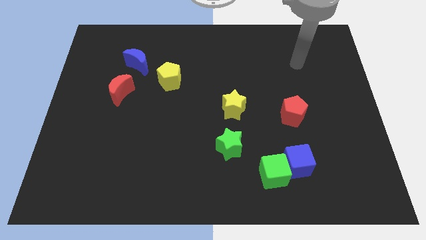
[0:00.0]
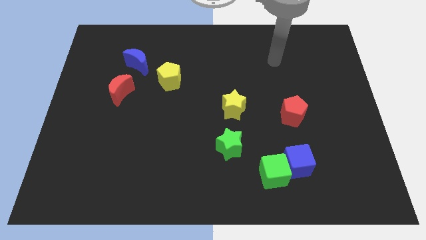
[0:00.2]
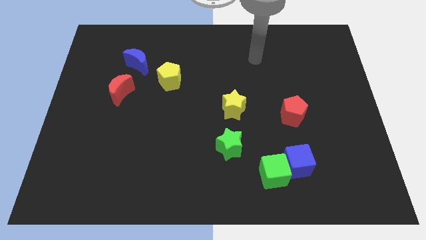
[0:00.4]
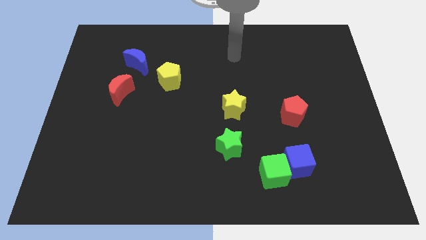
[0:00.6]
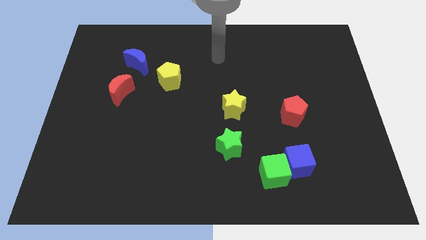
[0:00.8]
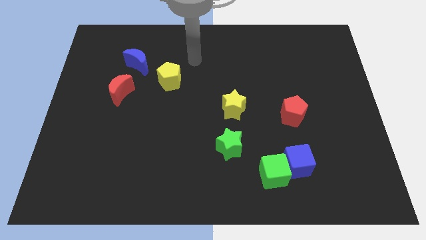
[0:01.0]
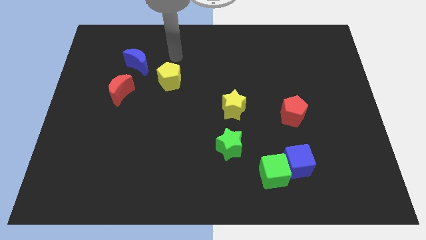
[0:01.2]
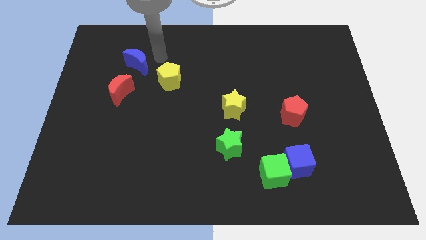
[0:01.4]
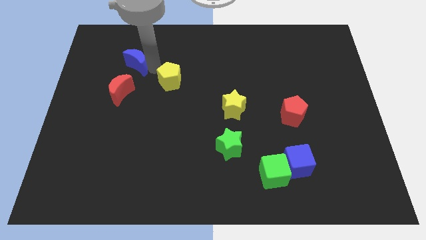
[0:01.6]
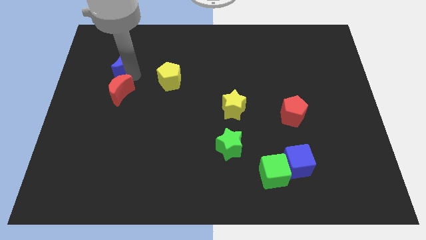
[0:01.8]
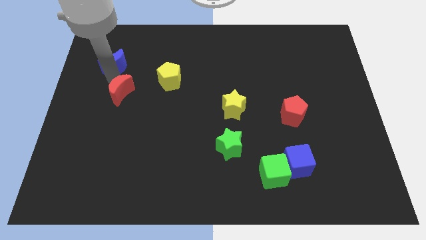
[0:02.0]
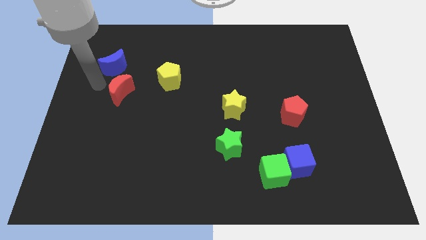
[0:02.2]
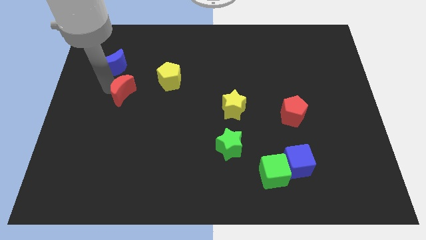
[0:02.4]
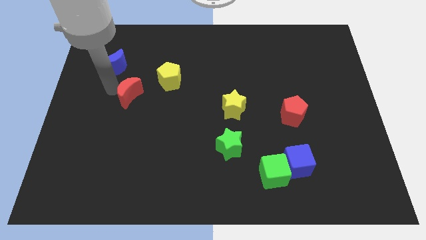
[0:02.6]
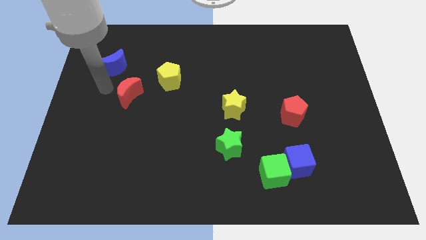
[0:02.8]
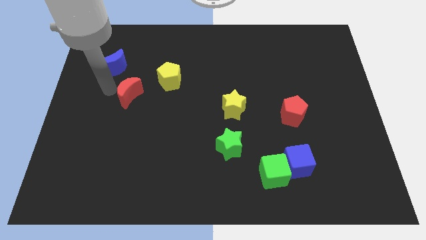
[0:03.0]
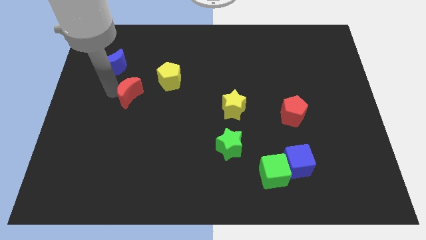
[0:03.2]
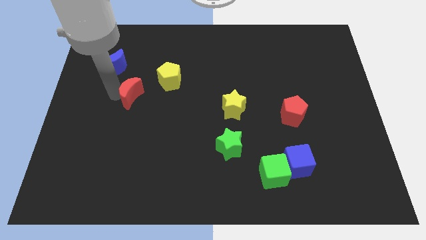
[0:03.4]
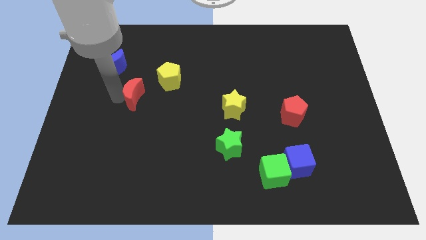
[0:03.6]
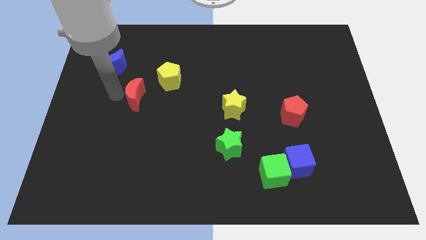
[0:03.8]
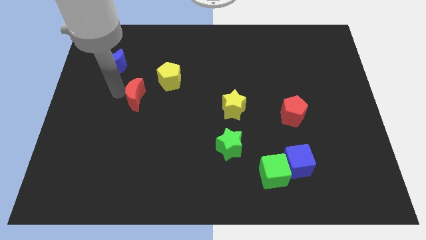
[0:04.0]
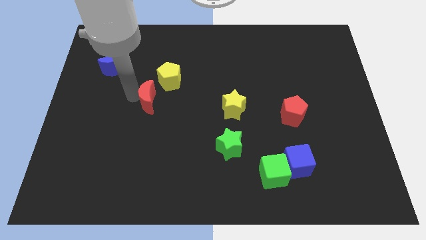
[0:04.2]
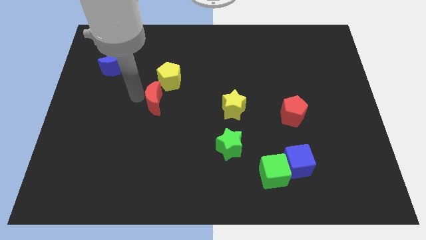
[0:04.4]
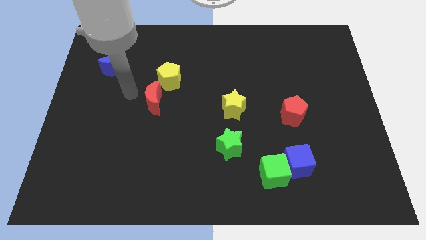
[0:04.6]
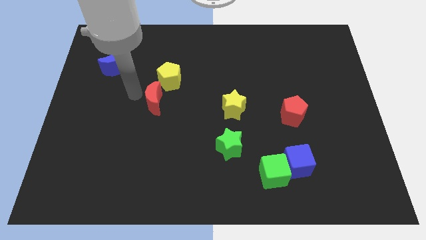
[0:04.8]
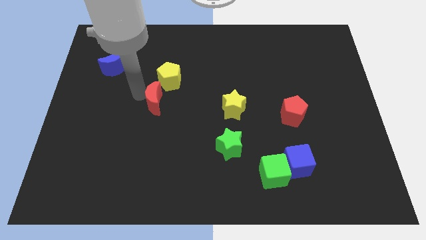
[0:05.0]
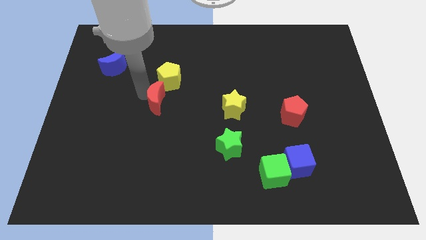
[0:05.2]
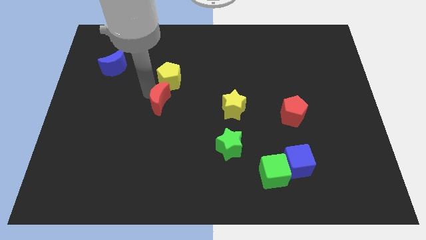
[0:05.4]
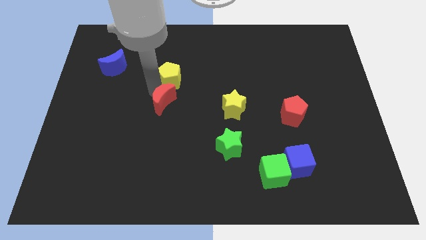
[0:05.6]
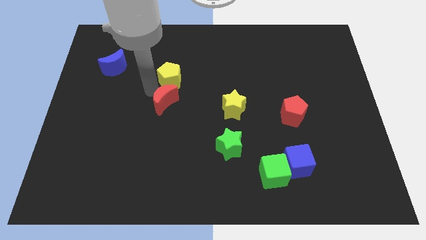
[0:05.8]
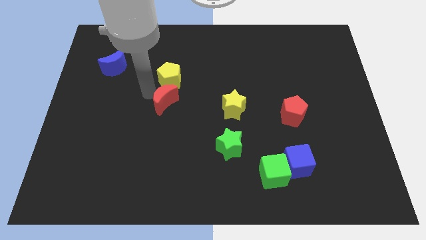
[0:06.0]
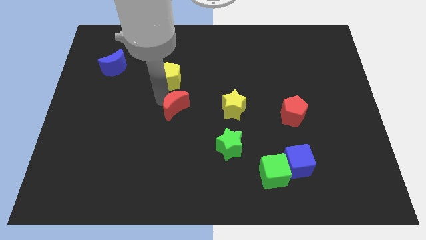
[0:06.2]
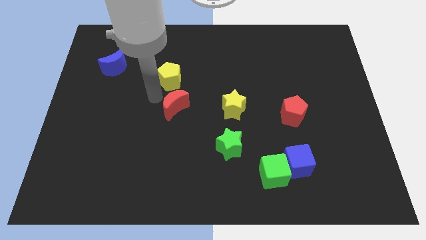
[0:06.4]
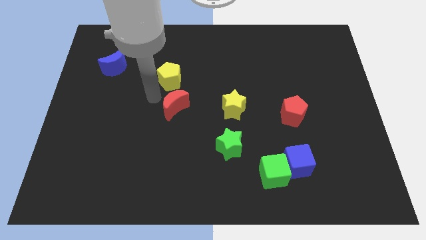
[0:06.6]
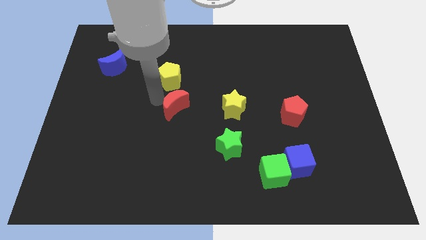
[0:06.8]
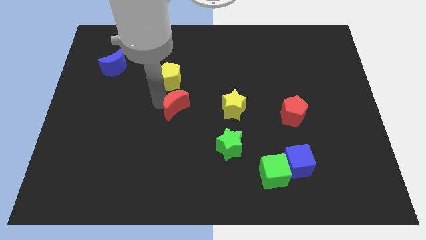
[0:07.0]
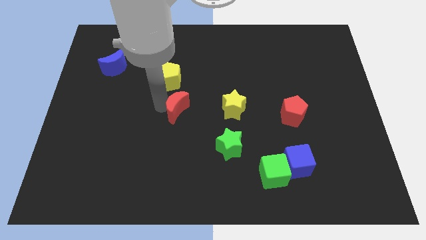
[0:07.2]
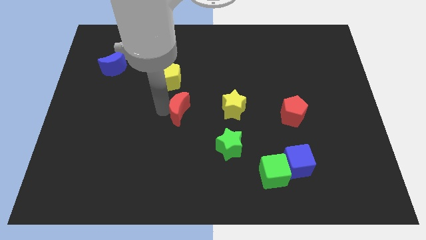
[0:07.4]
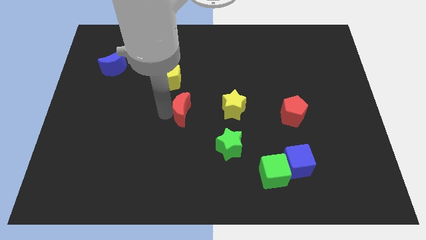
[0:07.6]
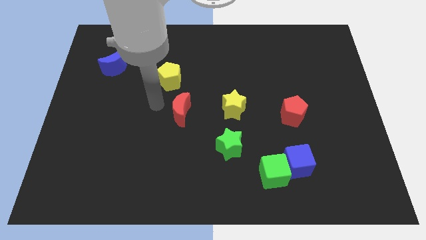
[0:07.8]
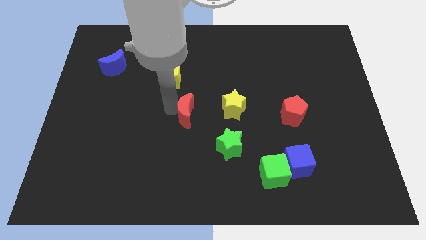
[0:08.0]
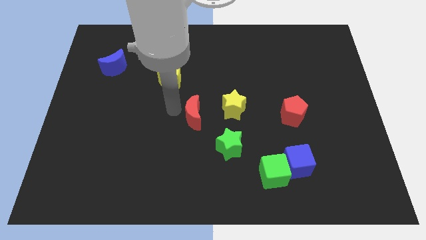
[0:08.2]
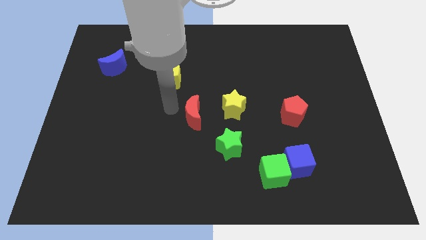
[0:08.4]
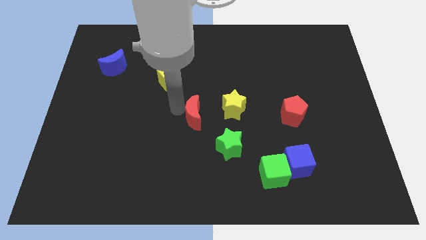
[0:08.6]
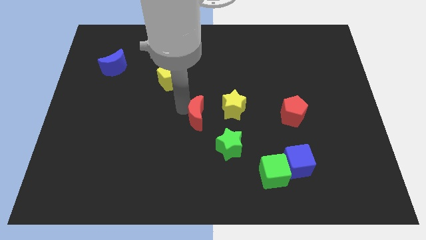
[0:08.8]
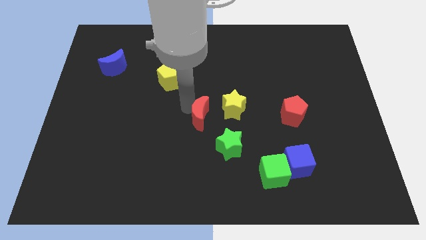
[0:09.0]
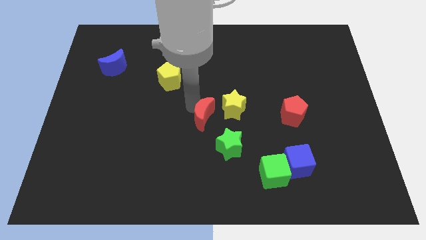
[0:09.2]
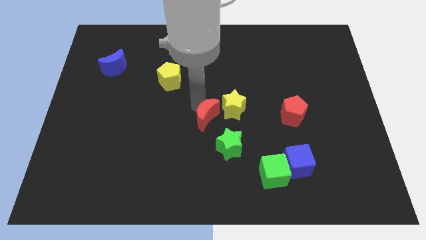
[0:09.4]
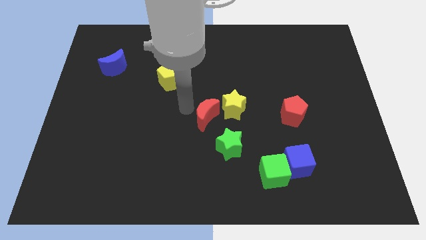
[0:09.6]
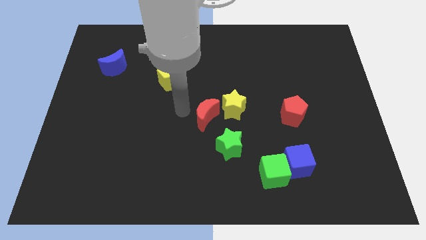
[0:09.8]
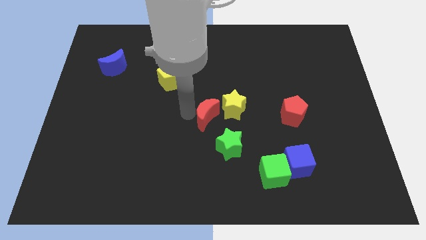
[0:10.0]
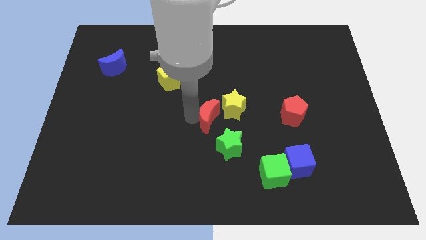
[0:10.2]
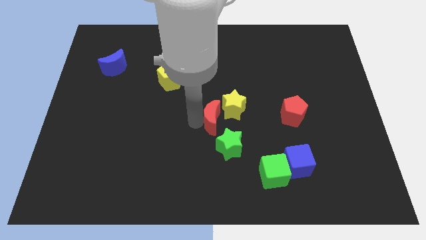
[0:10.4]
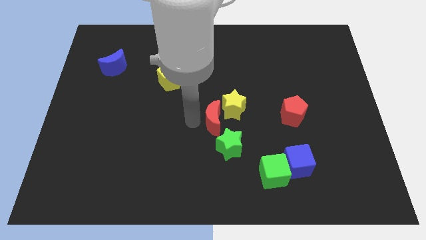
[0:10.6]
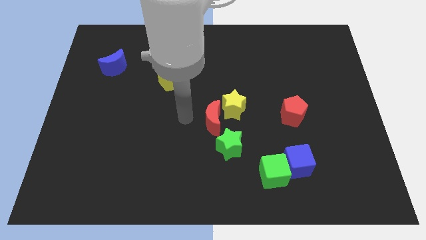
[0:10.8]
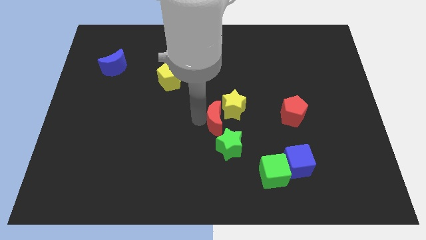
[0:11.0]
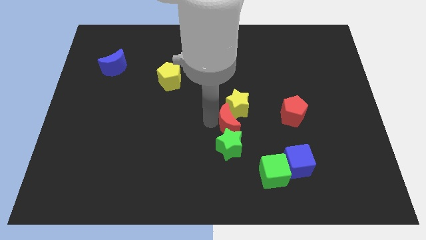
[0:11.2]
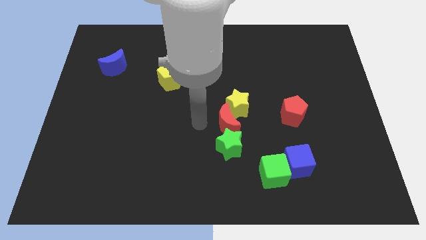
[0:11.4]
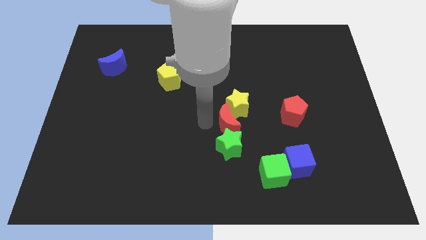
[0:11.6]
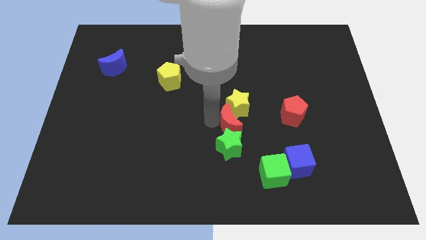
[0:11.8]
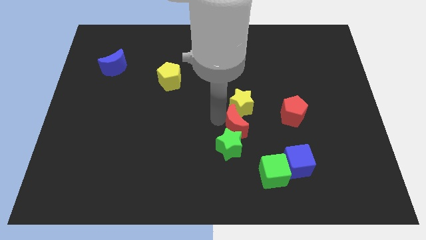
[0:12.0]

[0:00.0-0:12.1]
move the red moon to the bottom right side of the yellow star

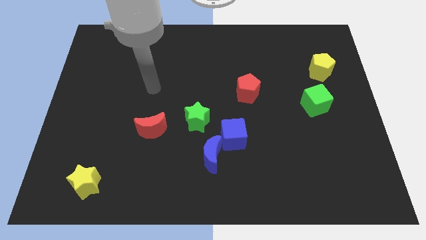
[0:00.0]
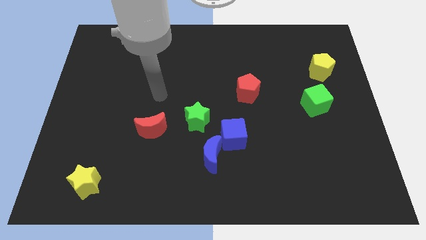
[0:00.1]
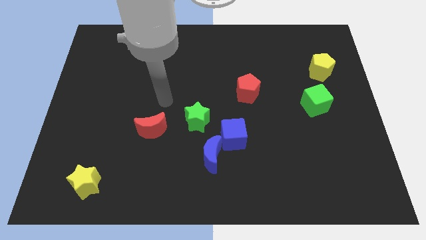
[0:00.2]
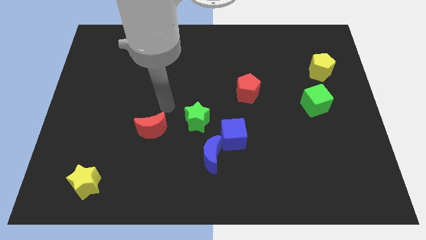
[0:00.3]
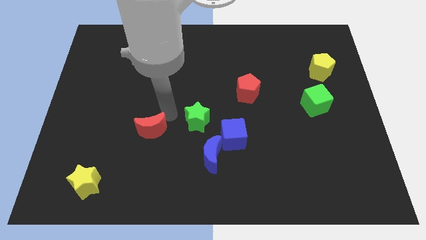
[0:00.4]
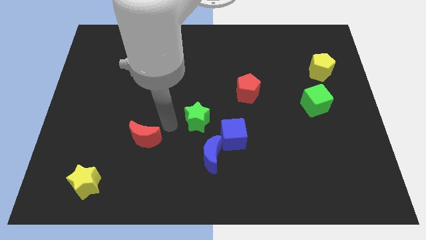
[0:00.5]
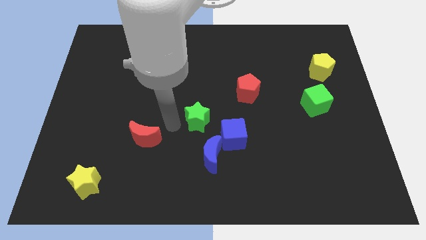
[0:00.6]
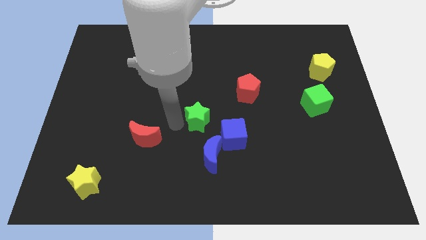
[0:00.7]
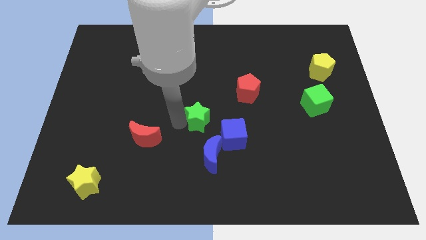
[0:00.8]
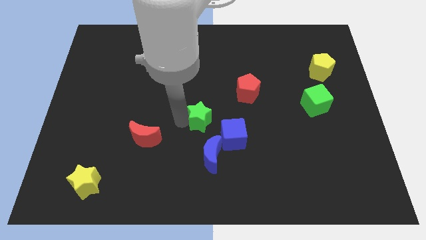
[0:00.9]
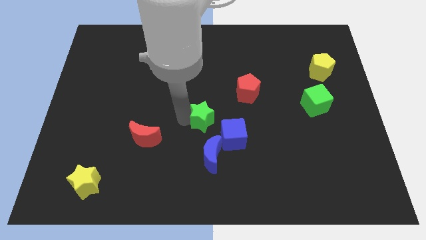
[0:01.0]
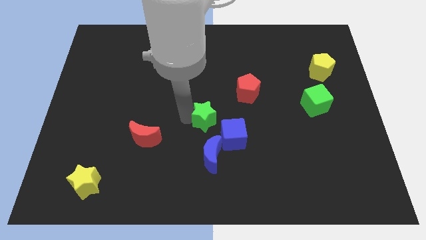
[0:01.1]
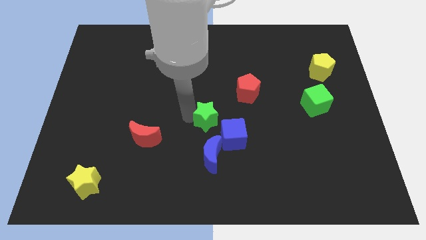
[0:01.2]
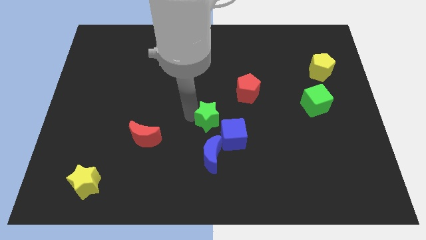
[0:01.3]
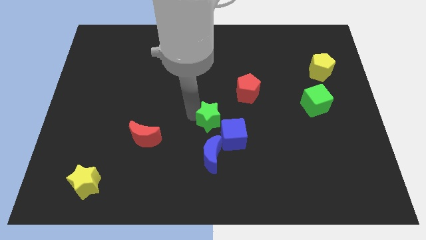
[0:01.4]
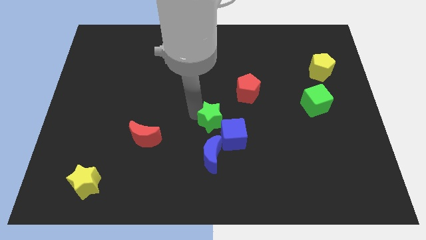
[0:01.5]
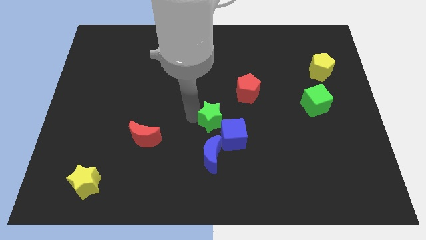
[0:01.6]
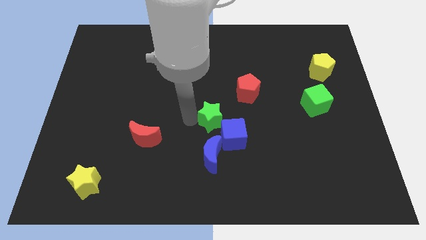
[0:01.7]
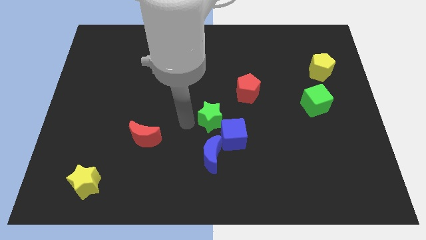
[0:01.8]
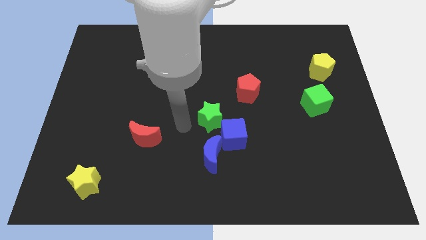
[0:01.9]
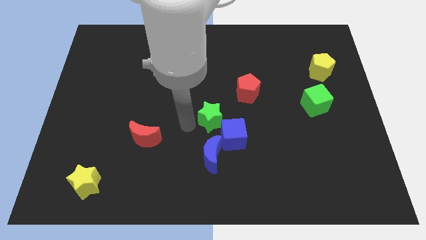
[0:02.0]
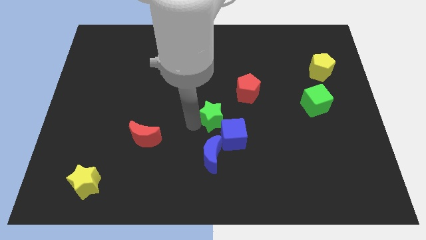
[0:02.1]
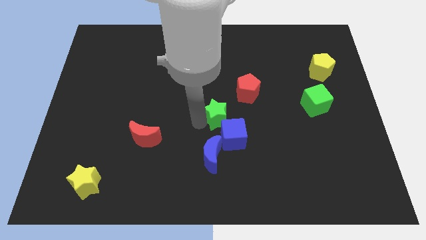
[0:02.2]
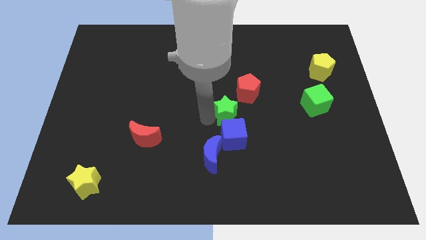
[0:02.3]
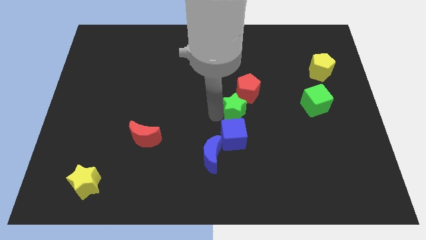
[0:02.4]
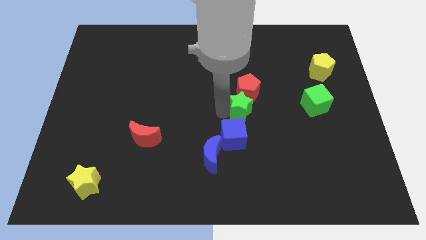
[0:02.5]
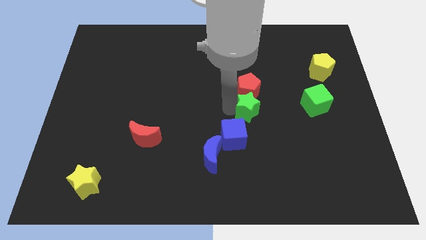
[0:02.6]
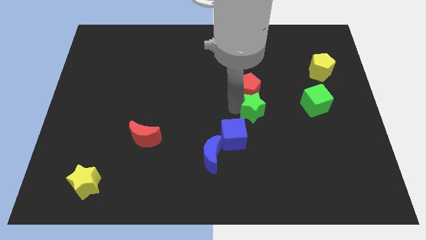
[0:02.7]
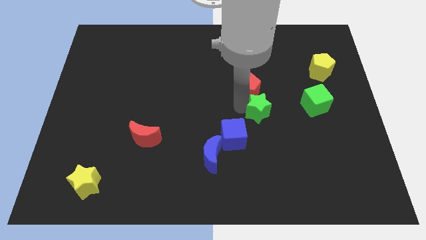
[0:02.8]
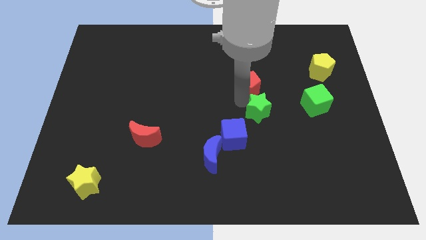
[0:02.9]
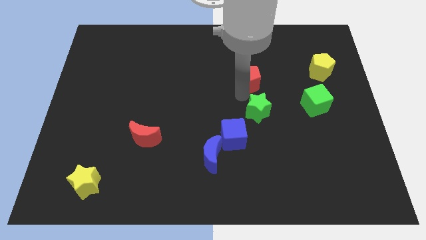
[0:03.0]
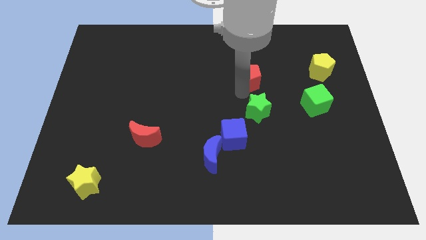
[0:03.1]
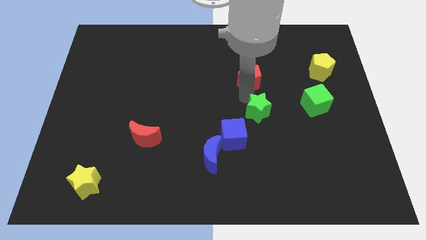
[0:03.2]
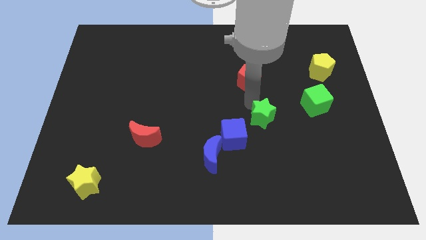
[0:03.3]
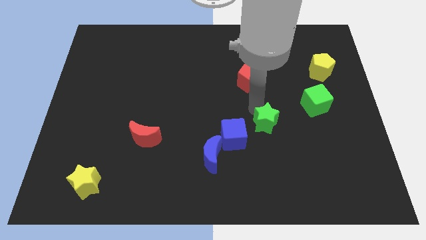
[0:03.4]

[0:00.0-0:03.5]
slide the green star to the right side of the blue cube
